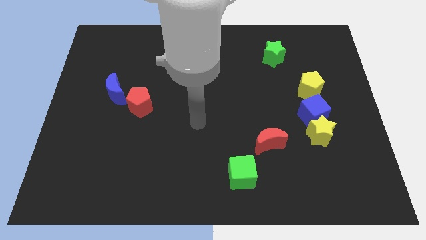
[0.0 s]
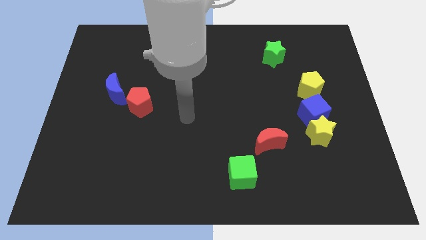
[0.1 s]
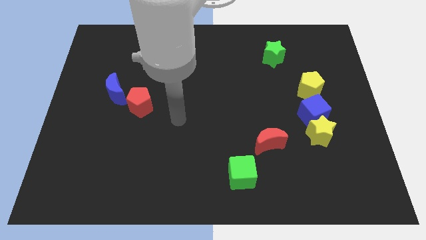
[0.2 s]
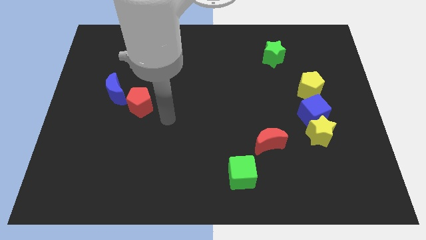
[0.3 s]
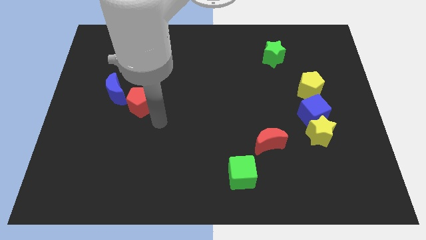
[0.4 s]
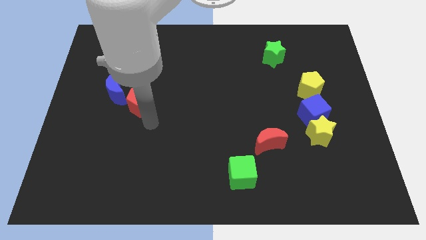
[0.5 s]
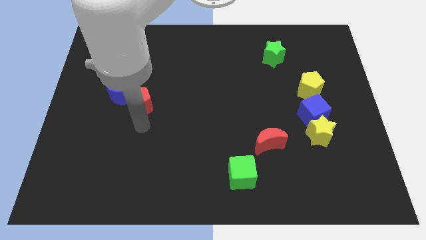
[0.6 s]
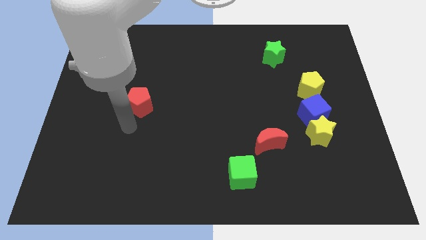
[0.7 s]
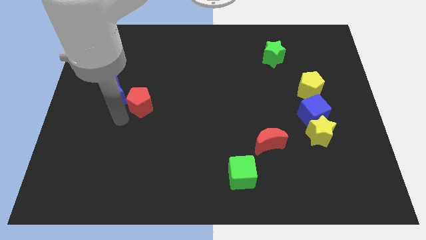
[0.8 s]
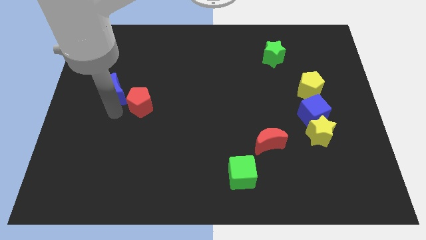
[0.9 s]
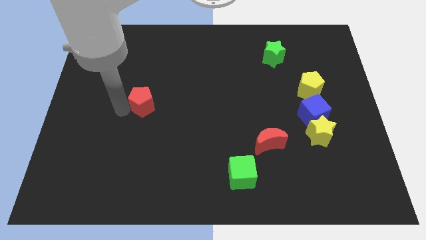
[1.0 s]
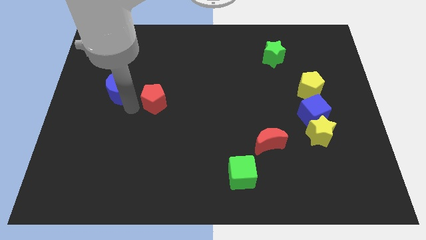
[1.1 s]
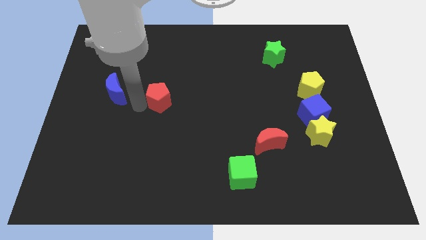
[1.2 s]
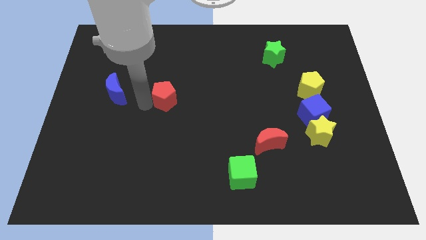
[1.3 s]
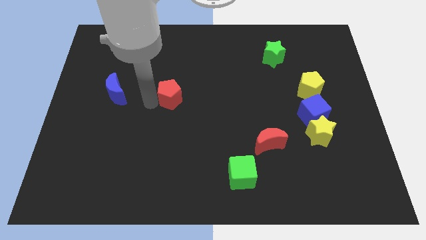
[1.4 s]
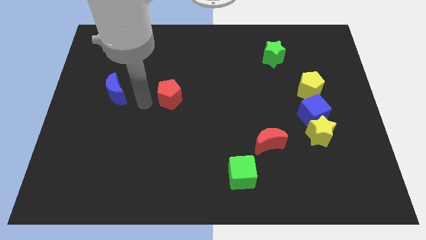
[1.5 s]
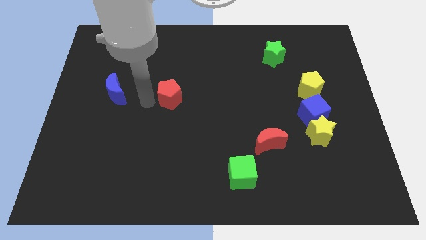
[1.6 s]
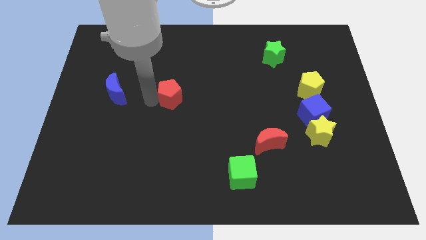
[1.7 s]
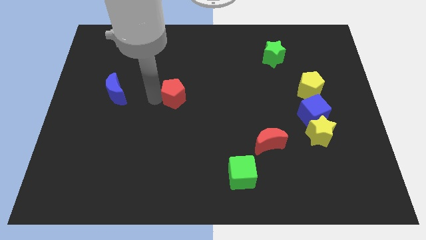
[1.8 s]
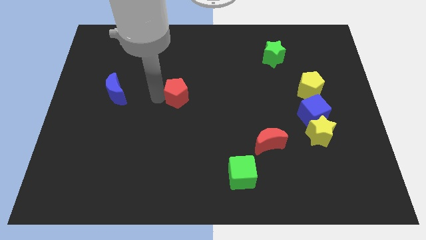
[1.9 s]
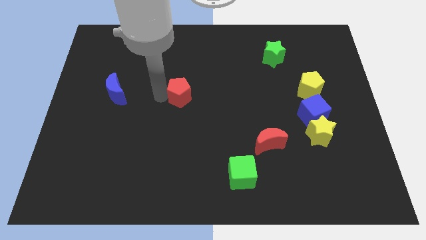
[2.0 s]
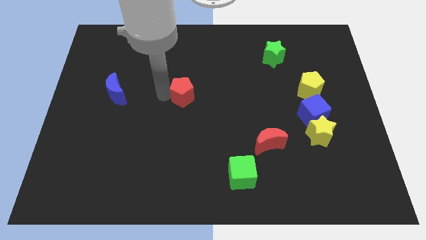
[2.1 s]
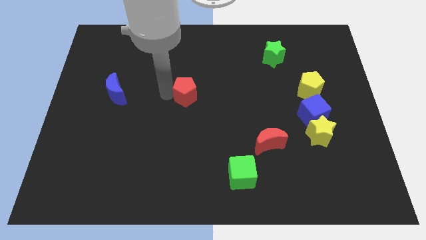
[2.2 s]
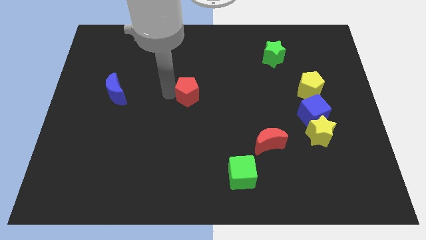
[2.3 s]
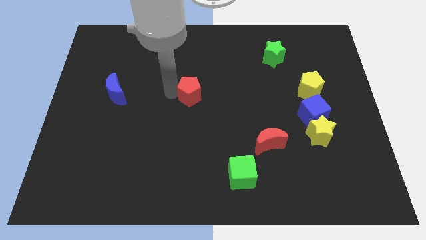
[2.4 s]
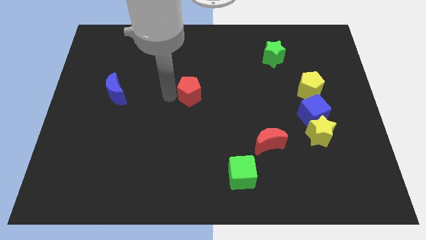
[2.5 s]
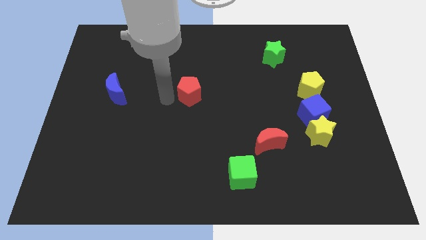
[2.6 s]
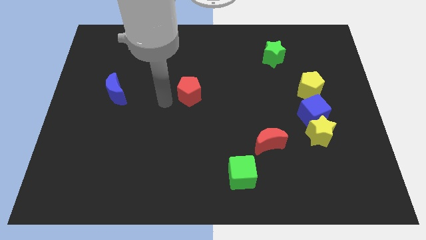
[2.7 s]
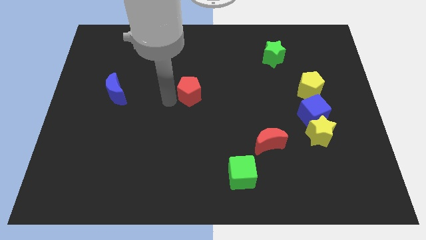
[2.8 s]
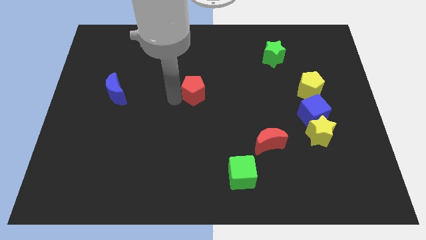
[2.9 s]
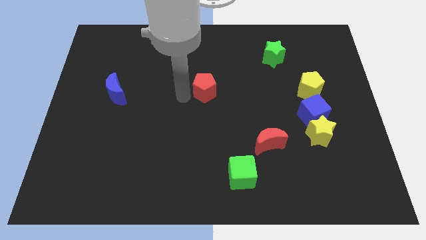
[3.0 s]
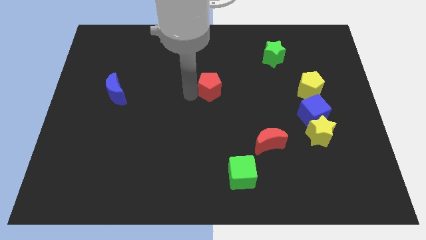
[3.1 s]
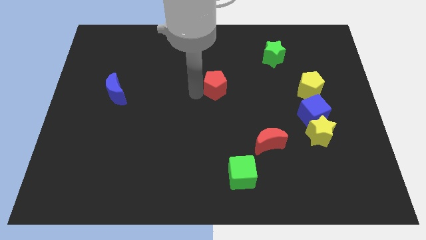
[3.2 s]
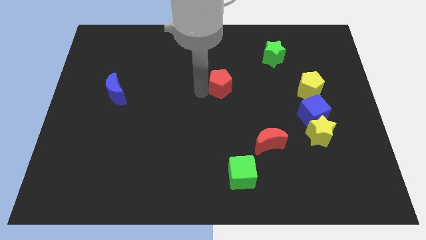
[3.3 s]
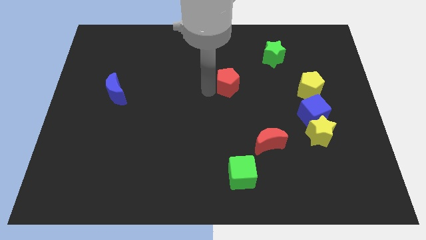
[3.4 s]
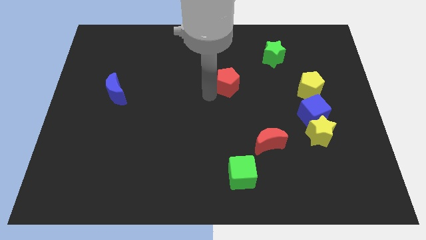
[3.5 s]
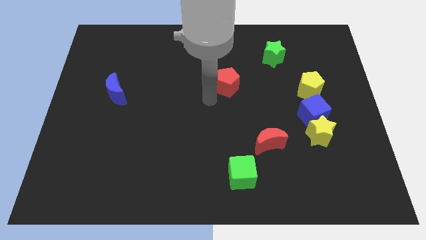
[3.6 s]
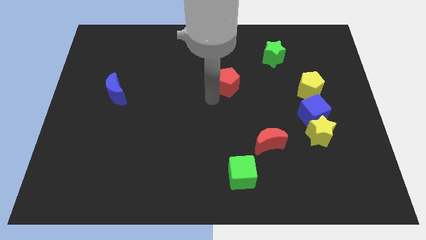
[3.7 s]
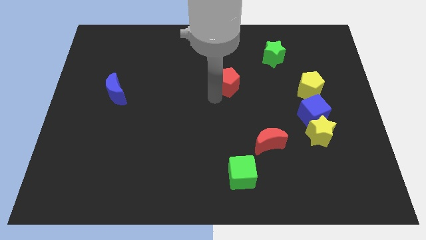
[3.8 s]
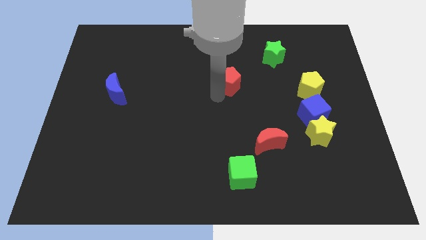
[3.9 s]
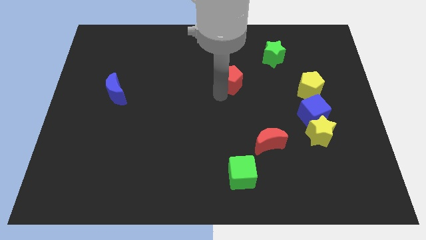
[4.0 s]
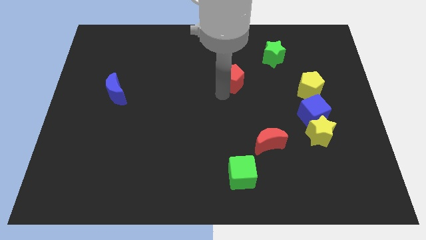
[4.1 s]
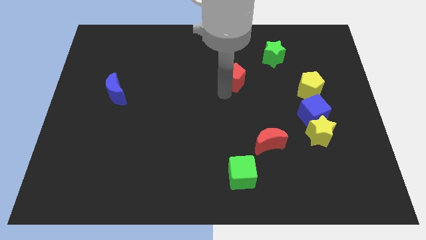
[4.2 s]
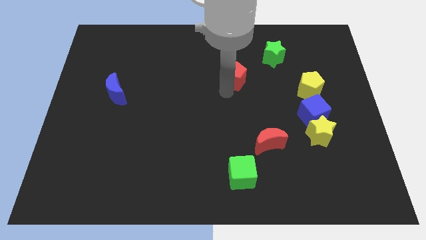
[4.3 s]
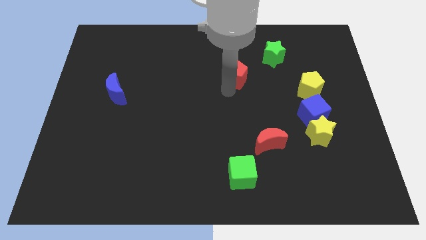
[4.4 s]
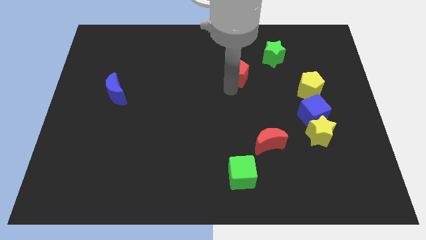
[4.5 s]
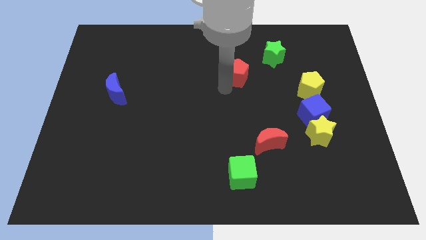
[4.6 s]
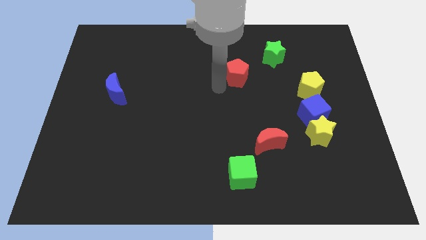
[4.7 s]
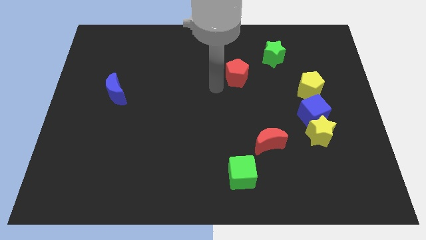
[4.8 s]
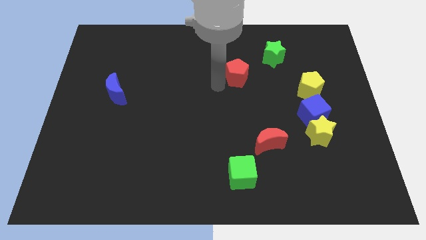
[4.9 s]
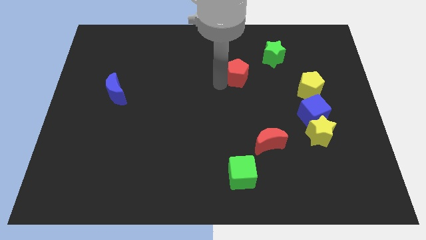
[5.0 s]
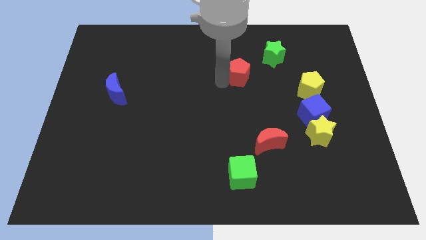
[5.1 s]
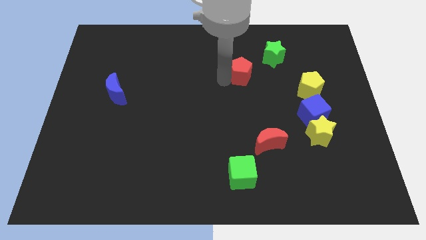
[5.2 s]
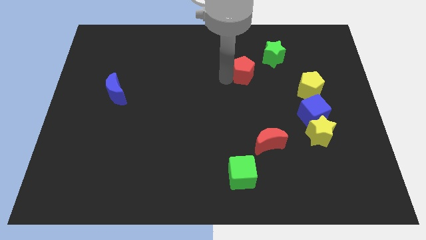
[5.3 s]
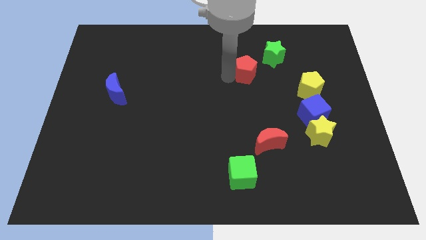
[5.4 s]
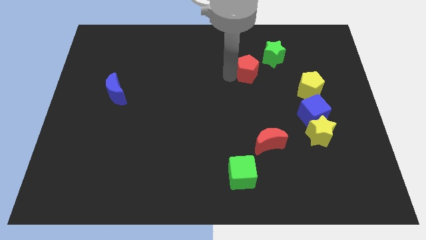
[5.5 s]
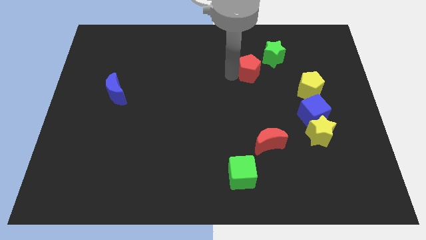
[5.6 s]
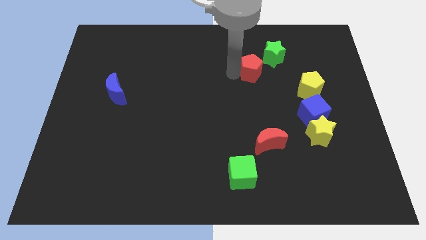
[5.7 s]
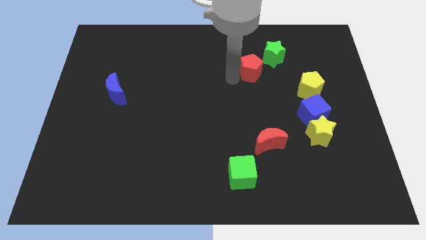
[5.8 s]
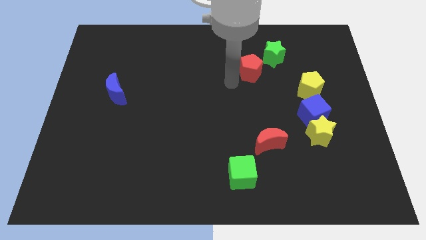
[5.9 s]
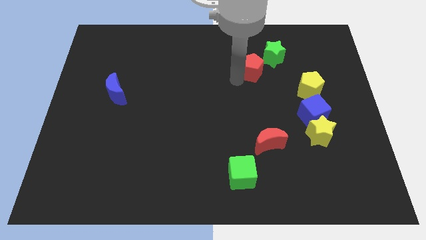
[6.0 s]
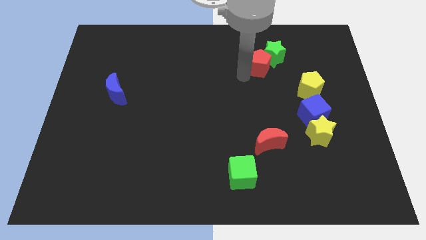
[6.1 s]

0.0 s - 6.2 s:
slide the red pentagon close to the green star

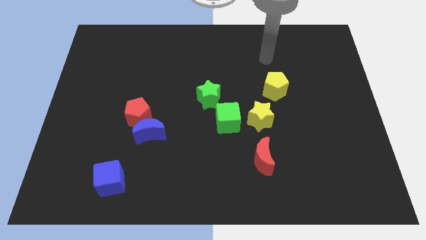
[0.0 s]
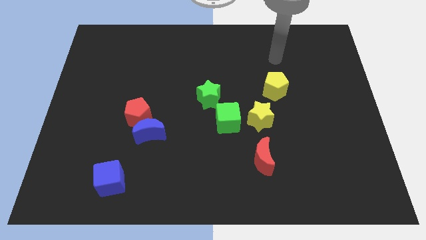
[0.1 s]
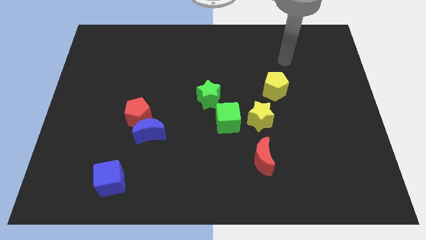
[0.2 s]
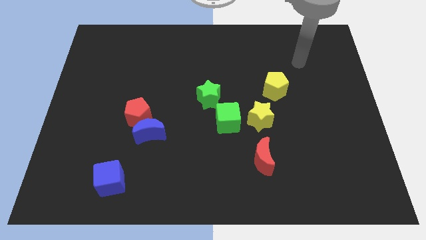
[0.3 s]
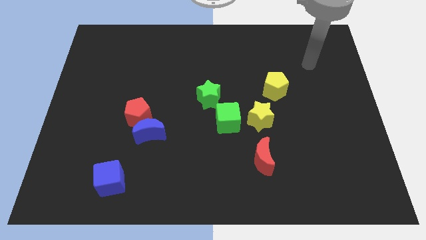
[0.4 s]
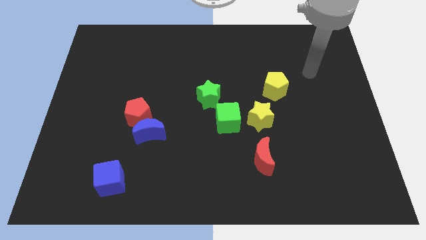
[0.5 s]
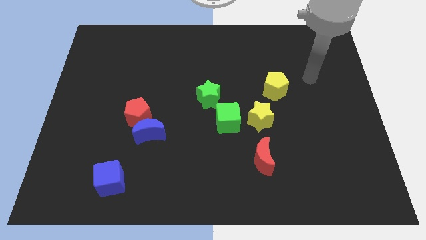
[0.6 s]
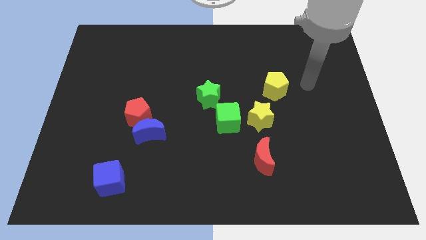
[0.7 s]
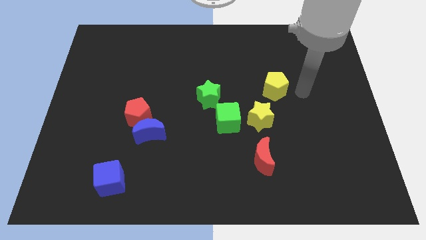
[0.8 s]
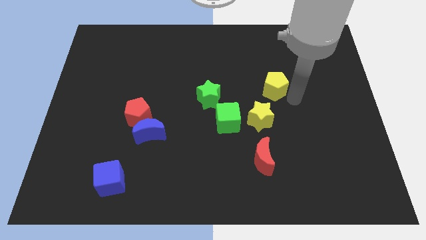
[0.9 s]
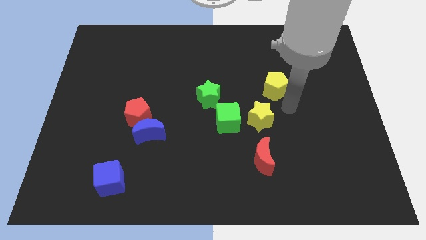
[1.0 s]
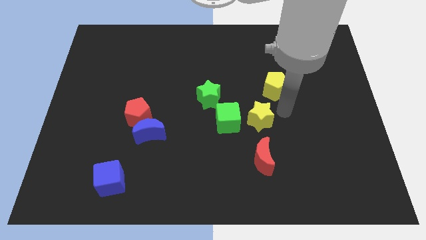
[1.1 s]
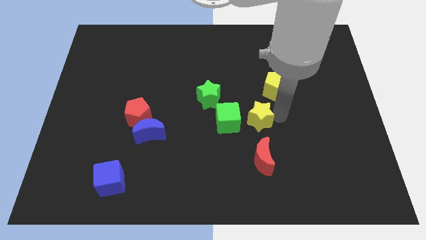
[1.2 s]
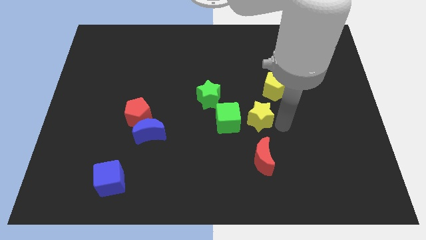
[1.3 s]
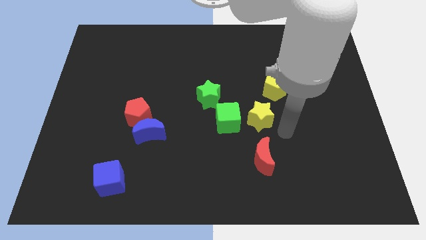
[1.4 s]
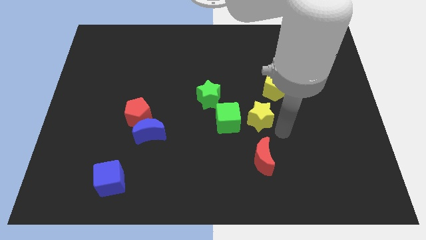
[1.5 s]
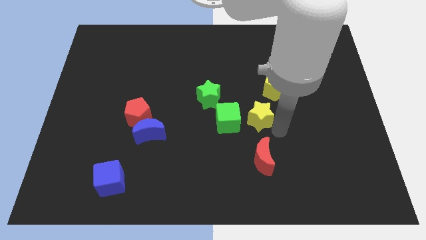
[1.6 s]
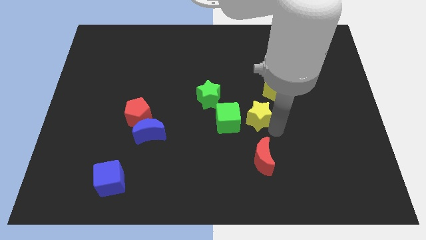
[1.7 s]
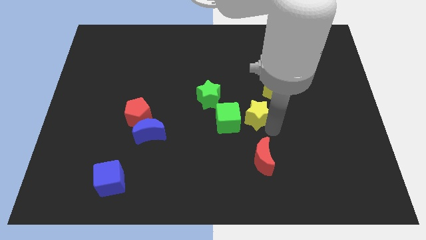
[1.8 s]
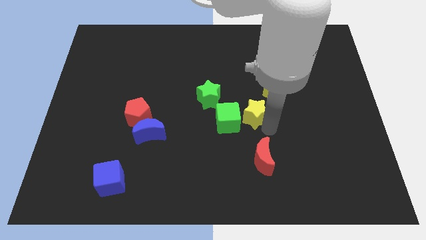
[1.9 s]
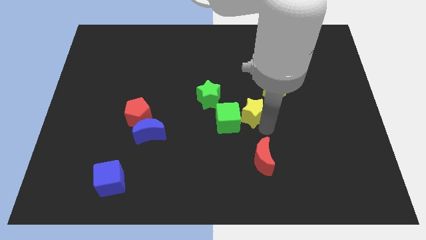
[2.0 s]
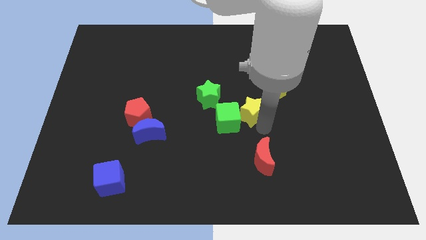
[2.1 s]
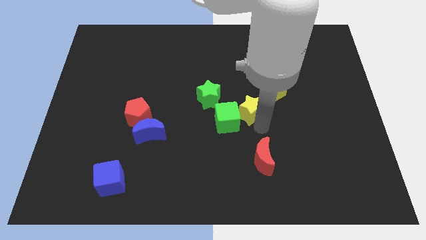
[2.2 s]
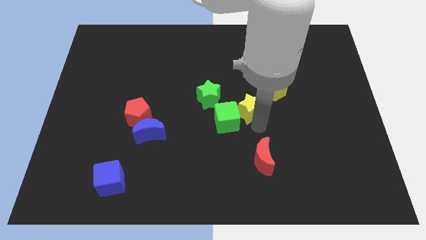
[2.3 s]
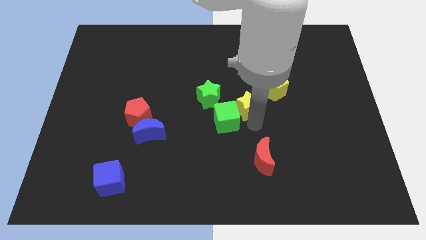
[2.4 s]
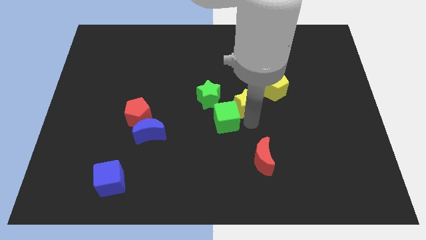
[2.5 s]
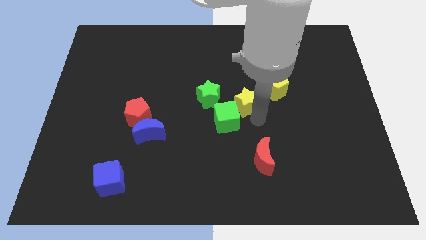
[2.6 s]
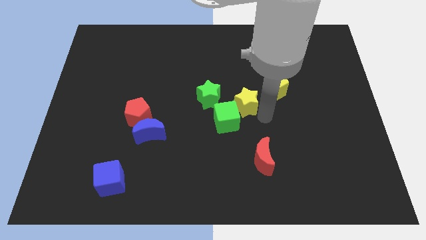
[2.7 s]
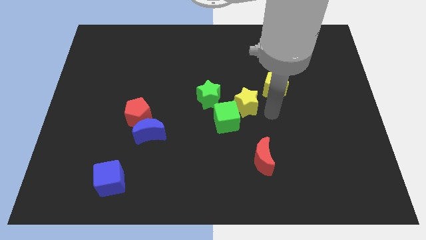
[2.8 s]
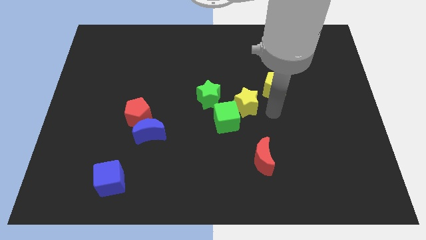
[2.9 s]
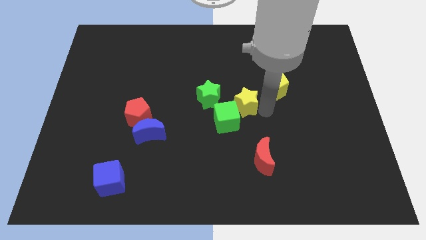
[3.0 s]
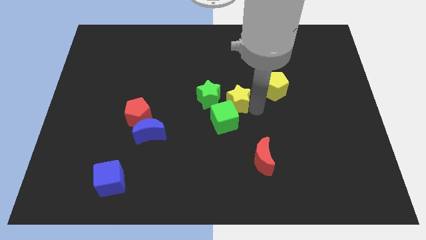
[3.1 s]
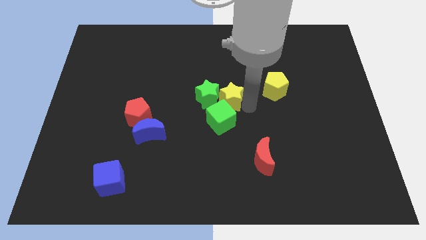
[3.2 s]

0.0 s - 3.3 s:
move the yellow star towards the green star
